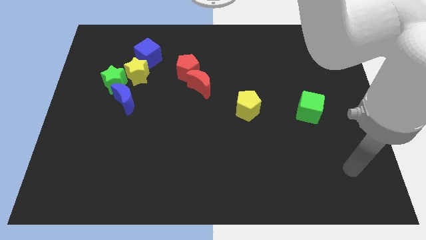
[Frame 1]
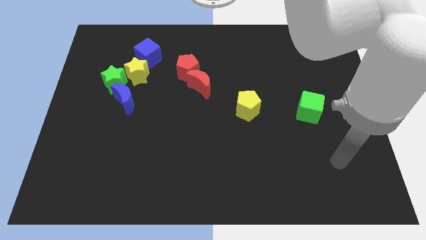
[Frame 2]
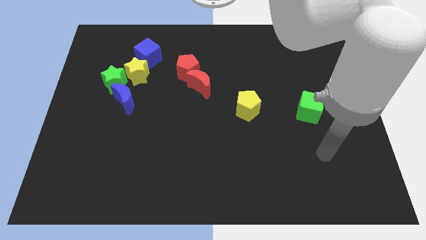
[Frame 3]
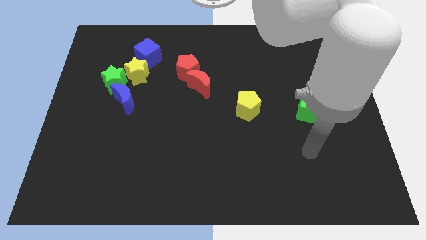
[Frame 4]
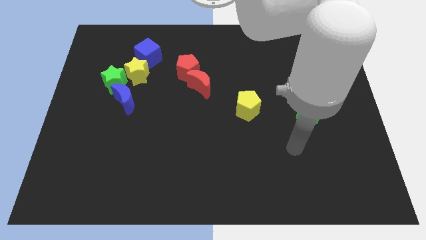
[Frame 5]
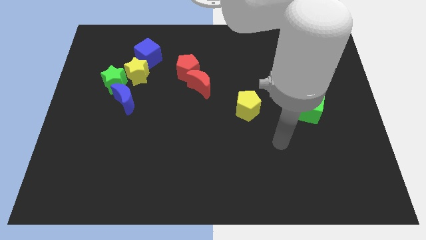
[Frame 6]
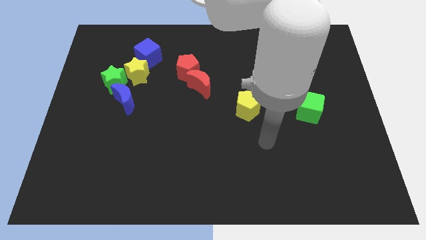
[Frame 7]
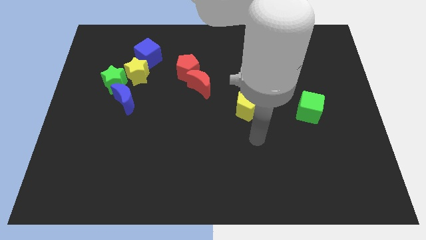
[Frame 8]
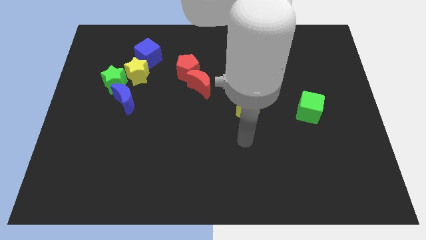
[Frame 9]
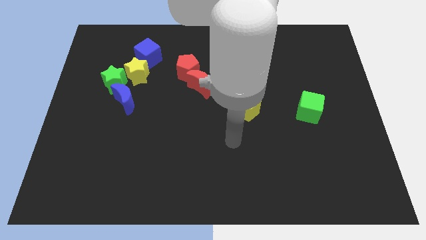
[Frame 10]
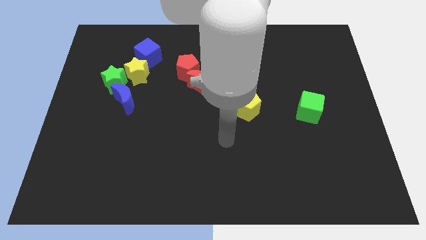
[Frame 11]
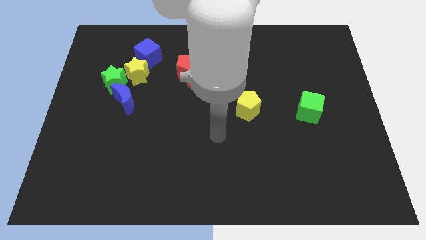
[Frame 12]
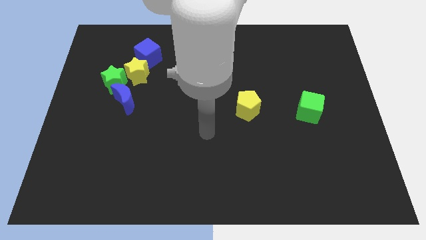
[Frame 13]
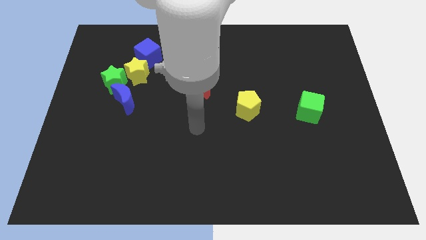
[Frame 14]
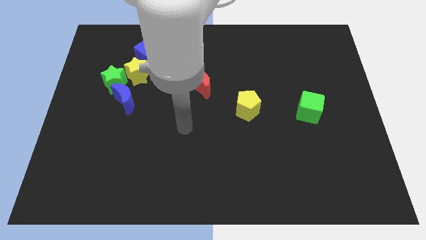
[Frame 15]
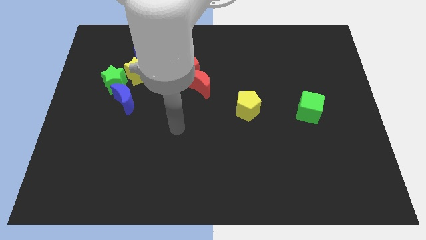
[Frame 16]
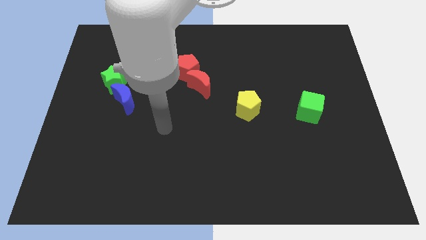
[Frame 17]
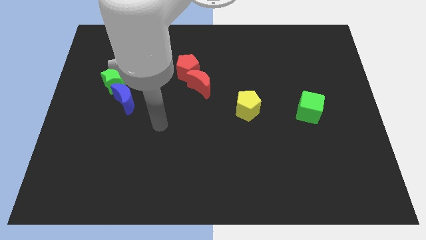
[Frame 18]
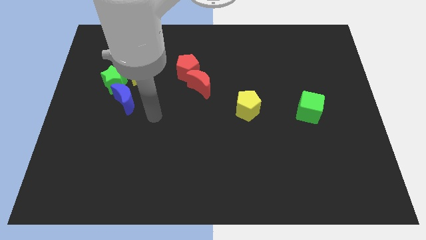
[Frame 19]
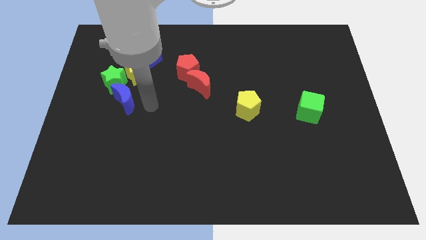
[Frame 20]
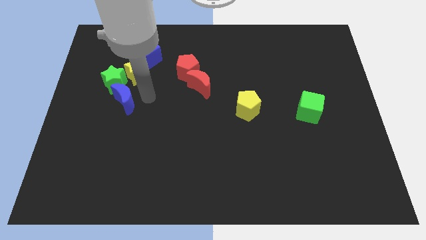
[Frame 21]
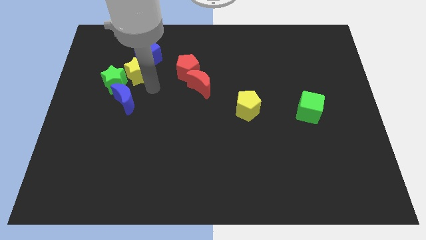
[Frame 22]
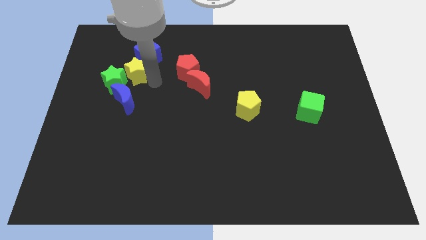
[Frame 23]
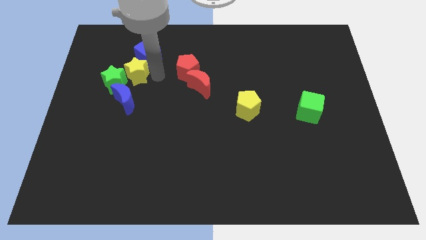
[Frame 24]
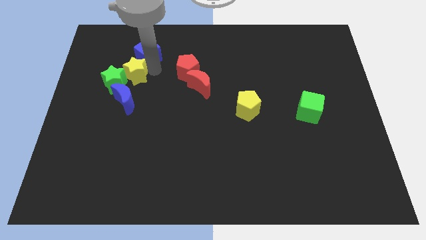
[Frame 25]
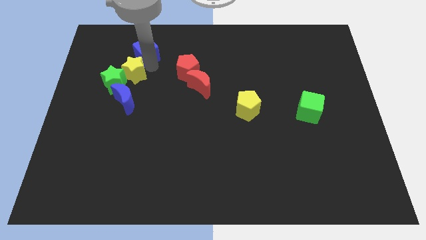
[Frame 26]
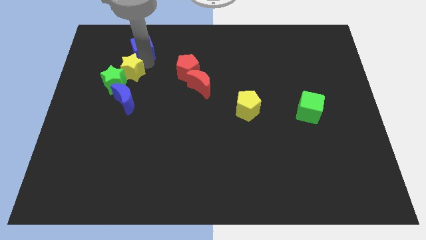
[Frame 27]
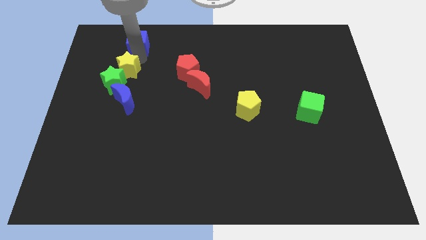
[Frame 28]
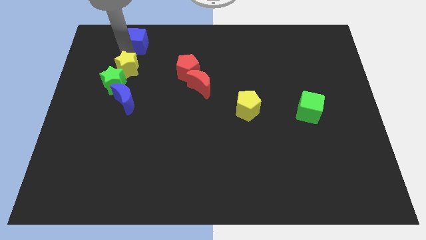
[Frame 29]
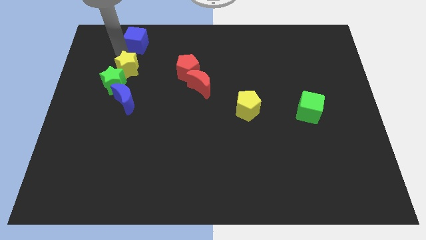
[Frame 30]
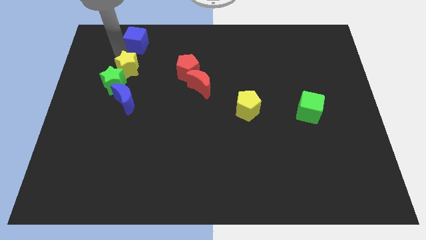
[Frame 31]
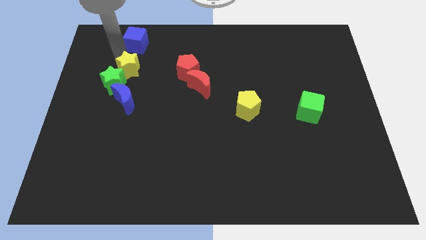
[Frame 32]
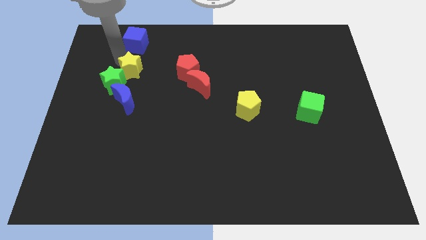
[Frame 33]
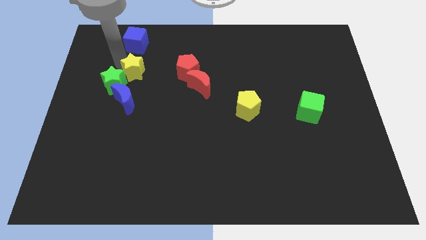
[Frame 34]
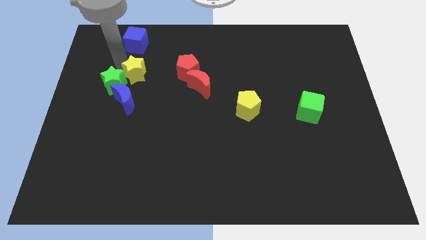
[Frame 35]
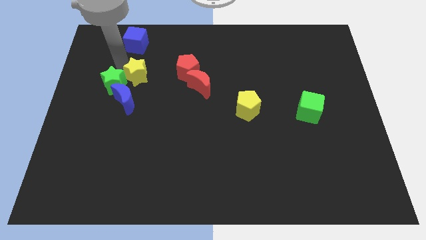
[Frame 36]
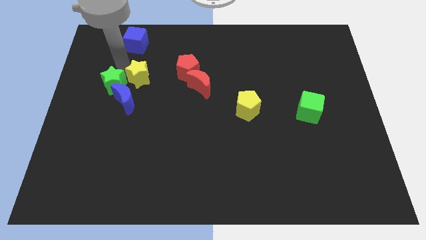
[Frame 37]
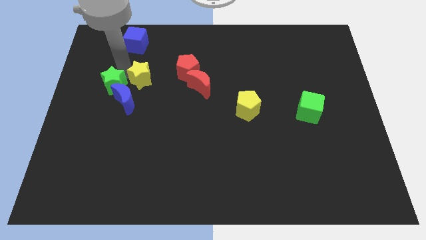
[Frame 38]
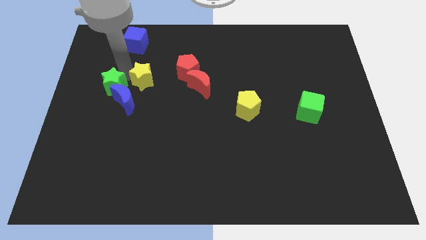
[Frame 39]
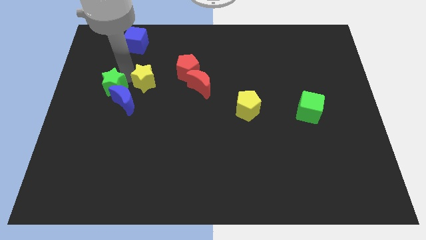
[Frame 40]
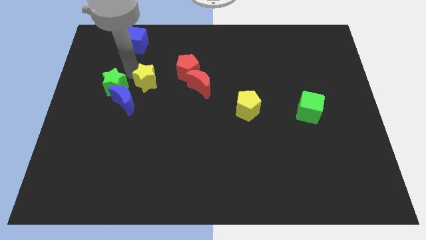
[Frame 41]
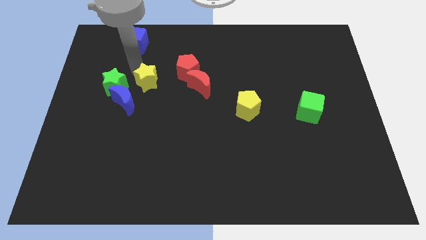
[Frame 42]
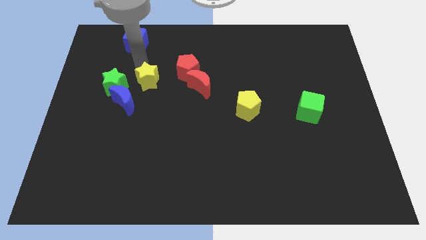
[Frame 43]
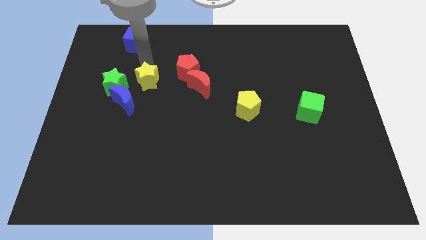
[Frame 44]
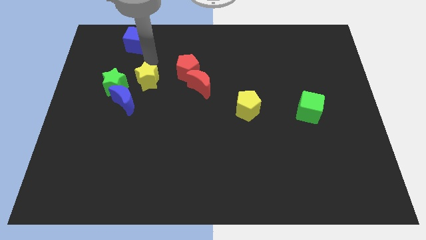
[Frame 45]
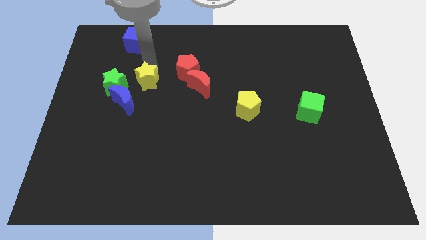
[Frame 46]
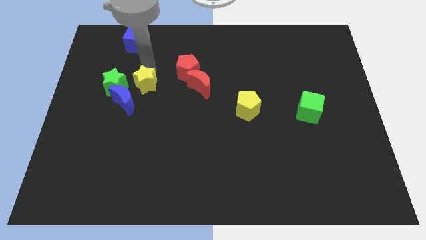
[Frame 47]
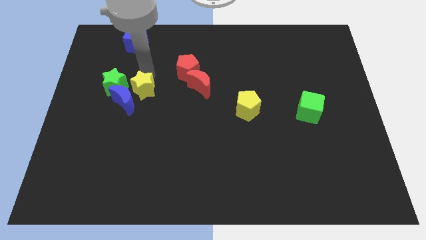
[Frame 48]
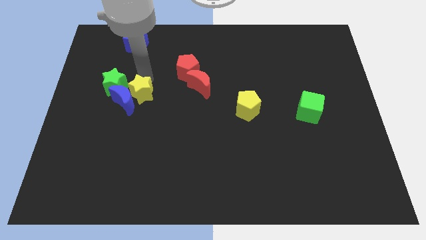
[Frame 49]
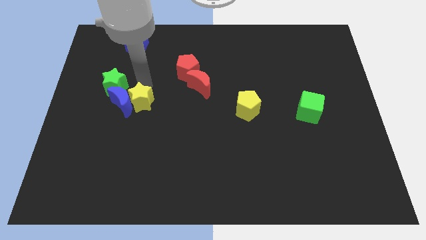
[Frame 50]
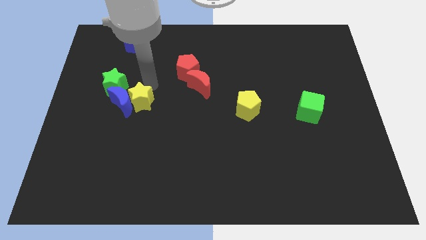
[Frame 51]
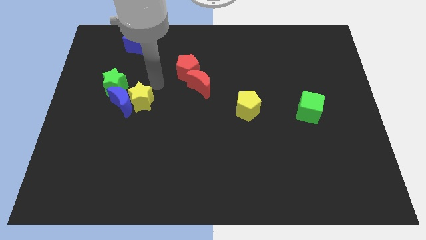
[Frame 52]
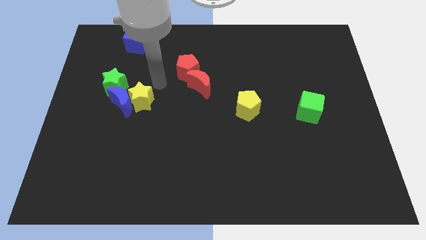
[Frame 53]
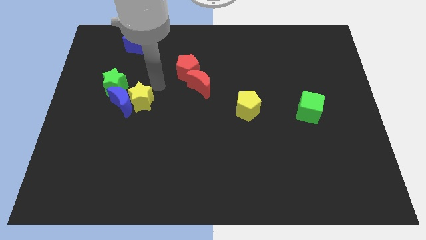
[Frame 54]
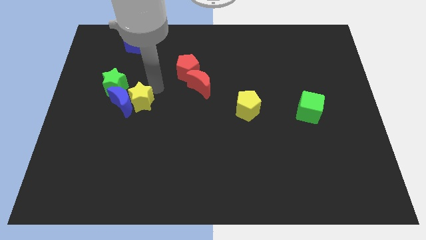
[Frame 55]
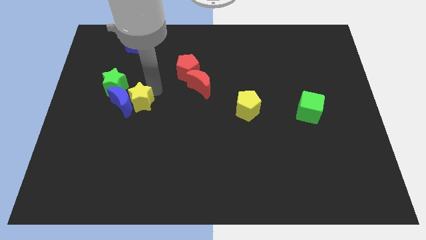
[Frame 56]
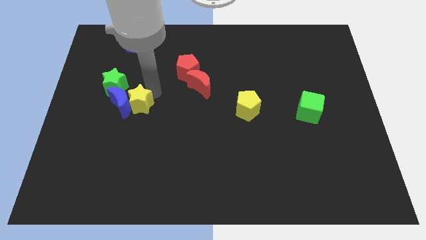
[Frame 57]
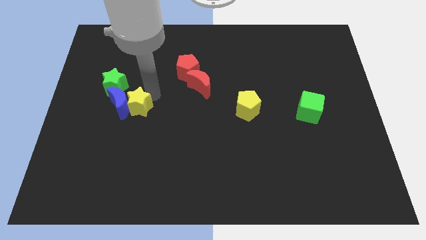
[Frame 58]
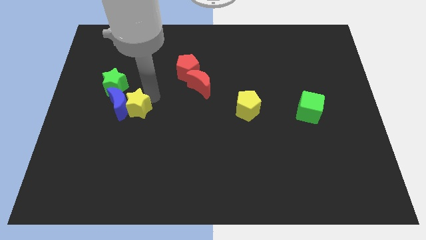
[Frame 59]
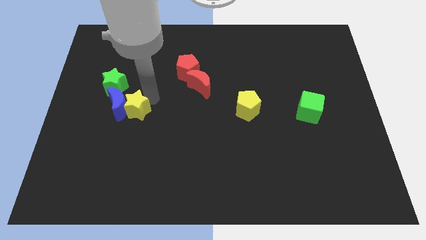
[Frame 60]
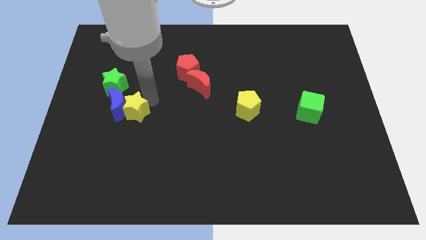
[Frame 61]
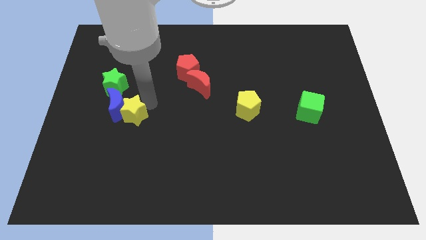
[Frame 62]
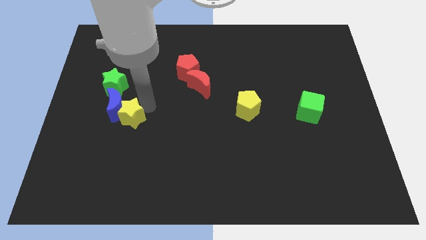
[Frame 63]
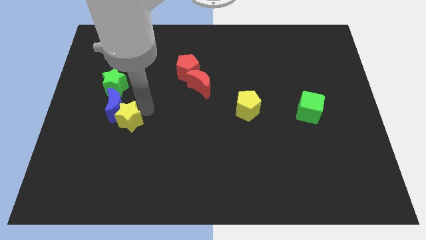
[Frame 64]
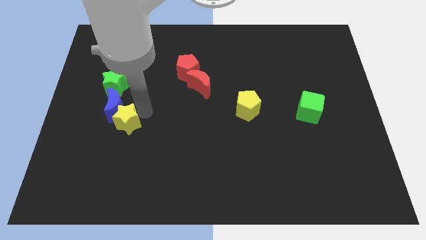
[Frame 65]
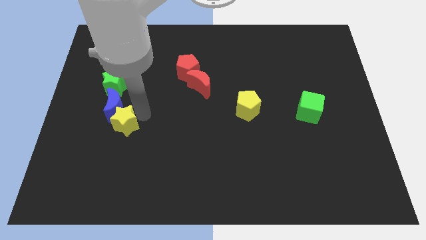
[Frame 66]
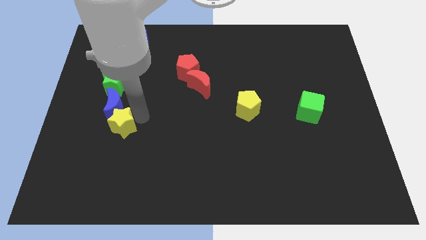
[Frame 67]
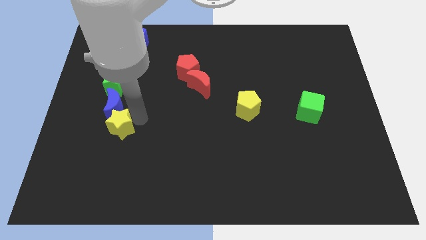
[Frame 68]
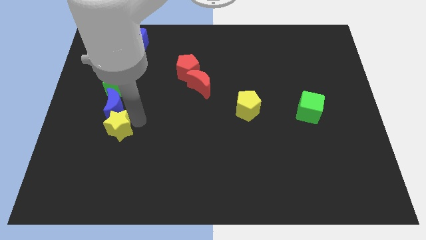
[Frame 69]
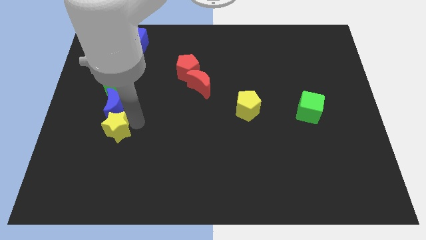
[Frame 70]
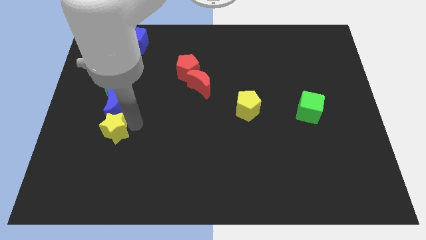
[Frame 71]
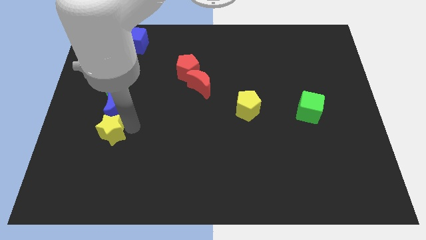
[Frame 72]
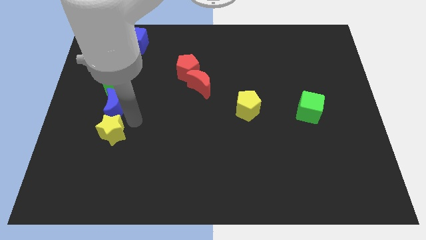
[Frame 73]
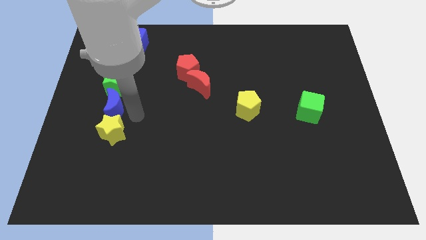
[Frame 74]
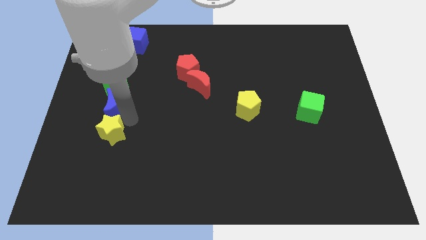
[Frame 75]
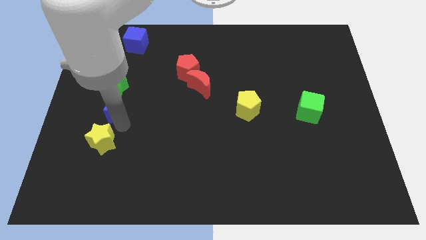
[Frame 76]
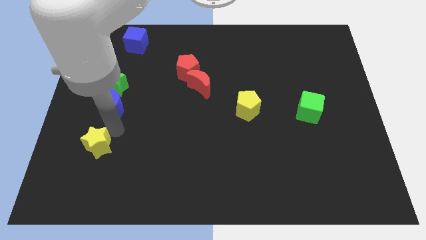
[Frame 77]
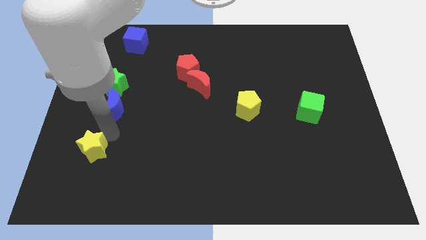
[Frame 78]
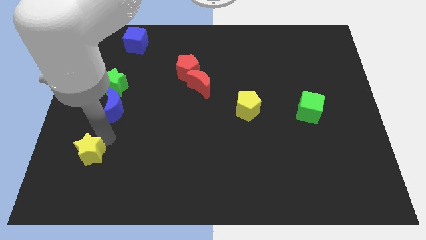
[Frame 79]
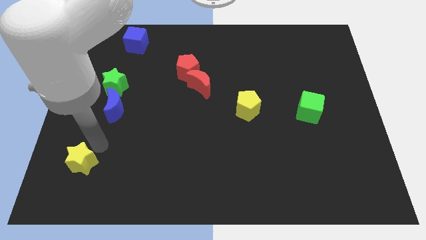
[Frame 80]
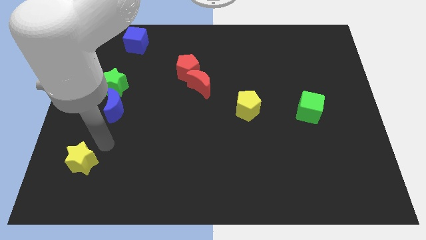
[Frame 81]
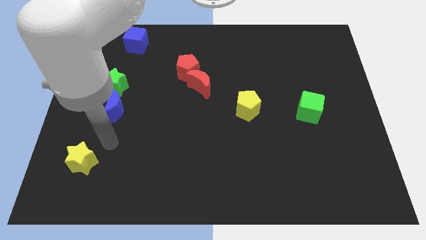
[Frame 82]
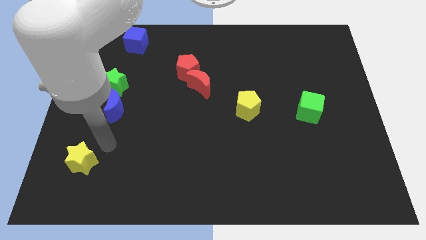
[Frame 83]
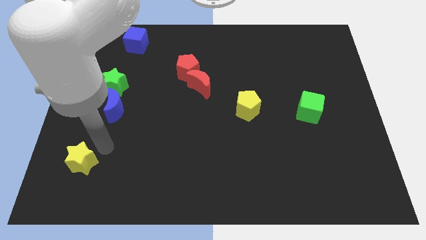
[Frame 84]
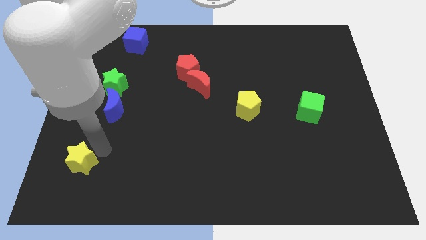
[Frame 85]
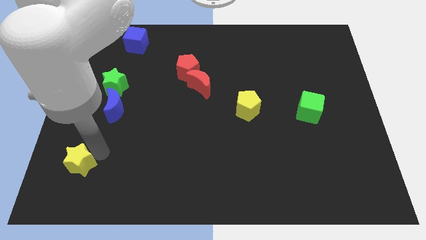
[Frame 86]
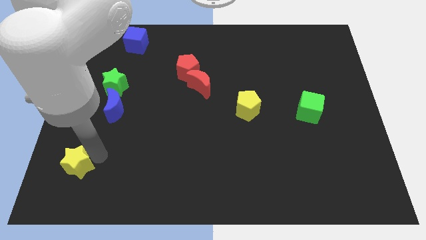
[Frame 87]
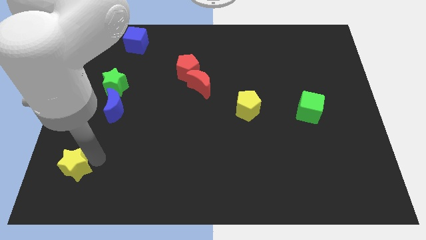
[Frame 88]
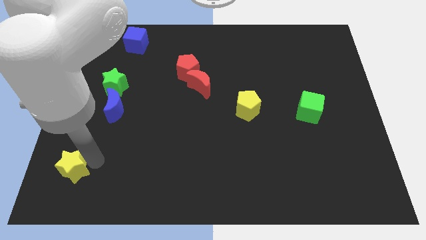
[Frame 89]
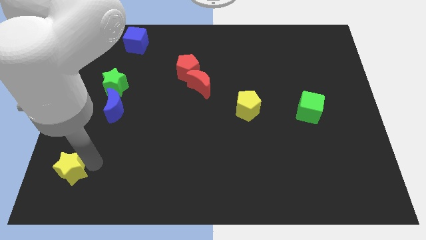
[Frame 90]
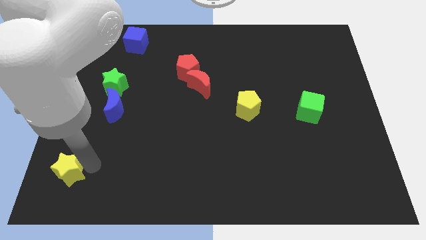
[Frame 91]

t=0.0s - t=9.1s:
move the yellow star to the bottom left
